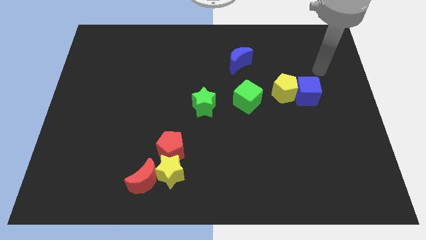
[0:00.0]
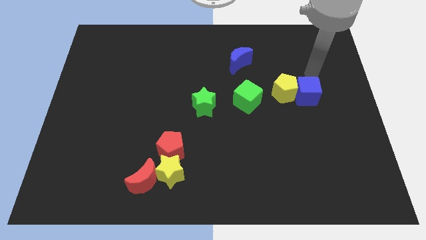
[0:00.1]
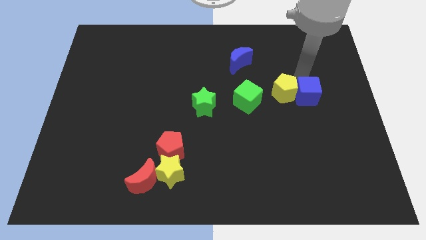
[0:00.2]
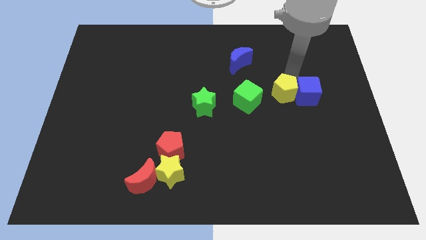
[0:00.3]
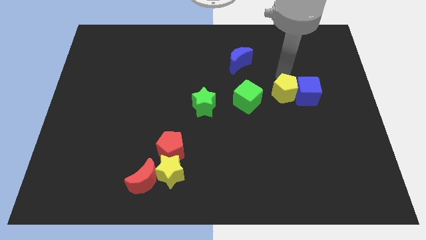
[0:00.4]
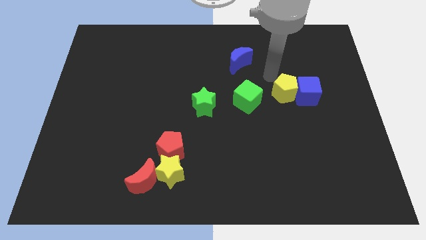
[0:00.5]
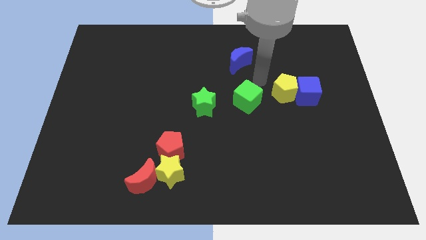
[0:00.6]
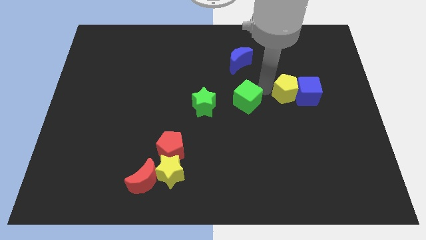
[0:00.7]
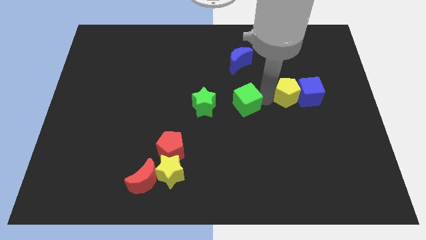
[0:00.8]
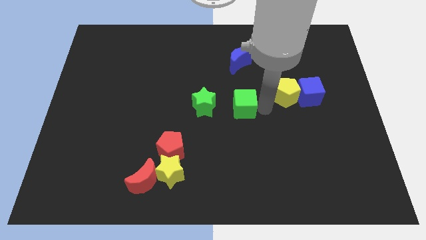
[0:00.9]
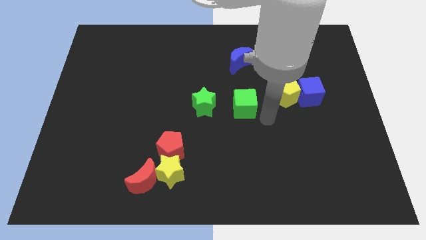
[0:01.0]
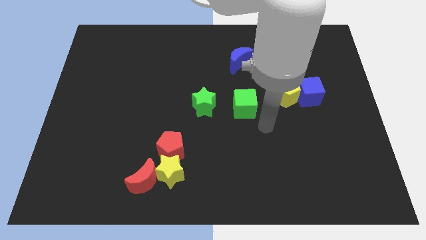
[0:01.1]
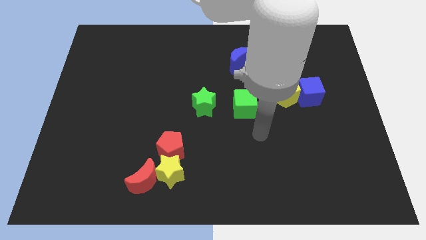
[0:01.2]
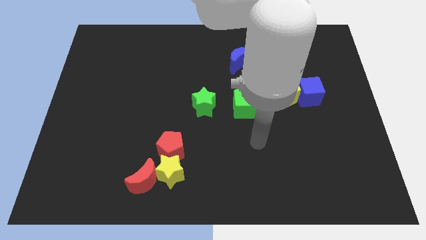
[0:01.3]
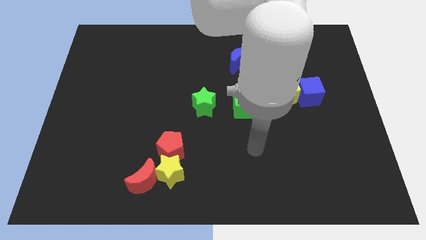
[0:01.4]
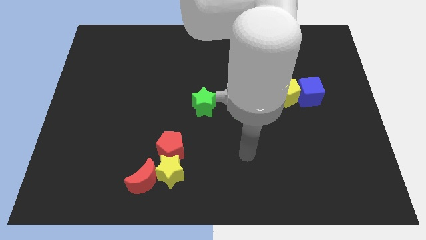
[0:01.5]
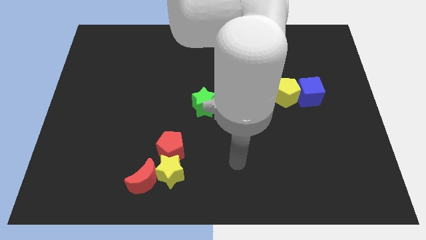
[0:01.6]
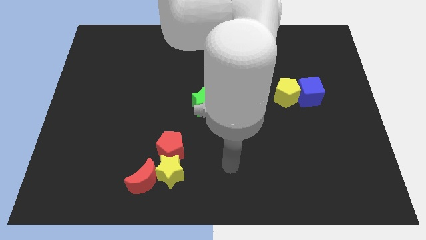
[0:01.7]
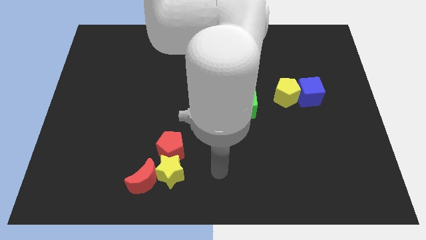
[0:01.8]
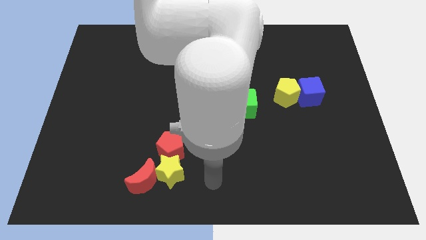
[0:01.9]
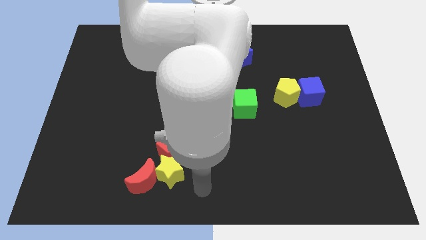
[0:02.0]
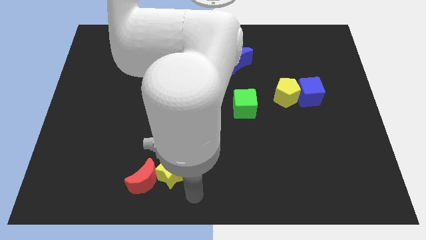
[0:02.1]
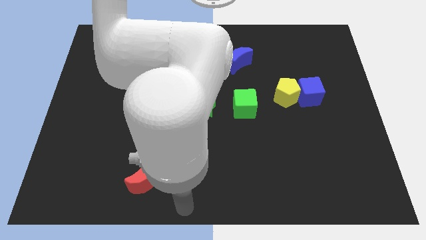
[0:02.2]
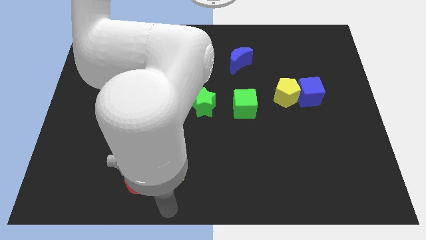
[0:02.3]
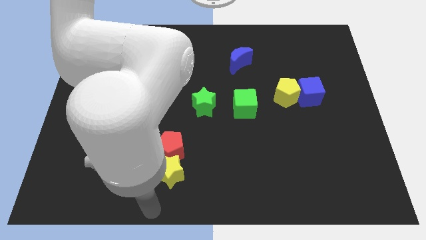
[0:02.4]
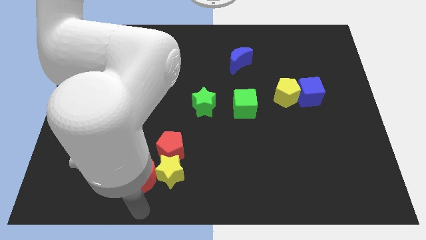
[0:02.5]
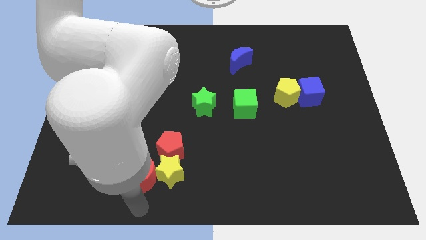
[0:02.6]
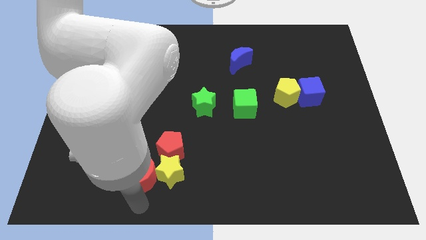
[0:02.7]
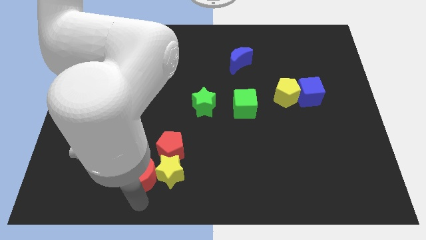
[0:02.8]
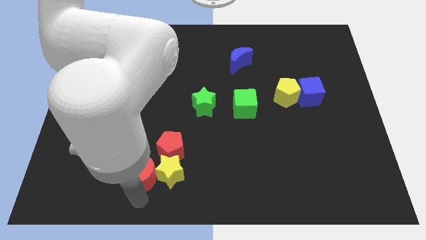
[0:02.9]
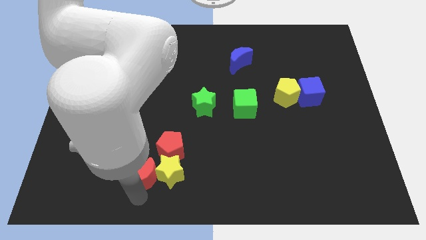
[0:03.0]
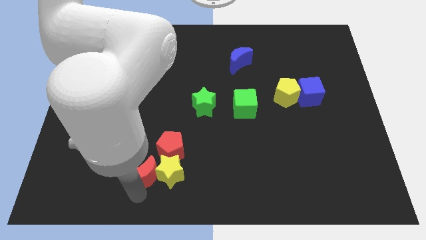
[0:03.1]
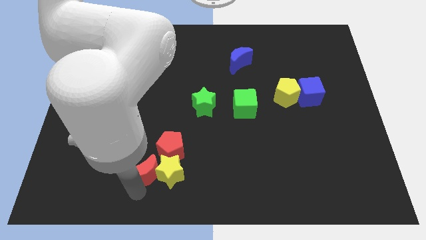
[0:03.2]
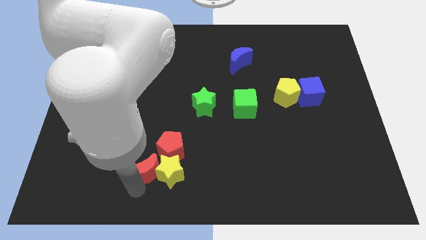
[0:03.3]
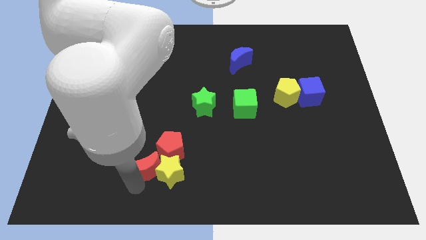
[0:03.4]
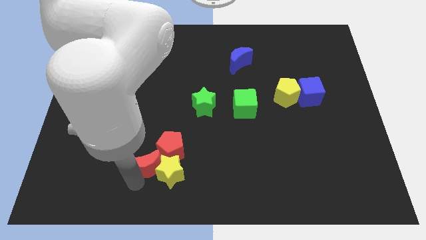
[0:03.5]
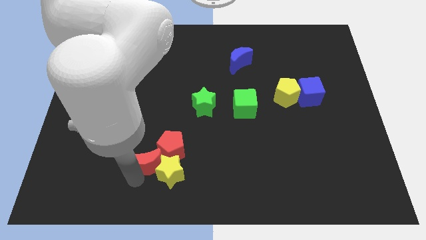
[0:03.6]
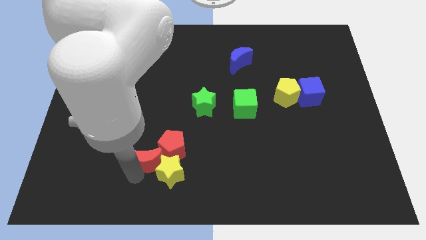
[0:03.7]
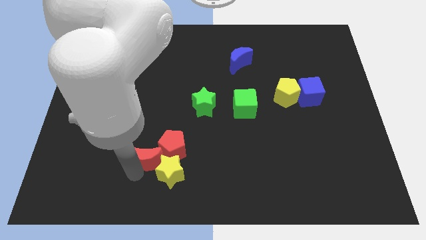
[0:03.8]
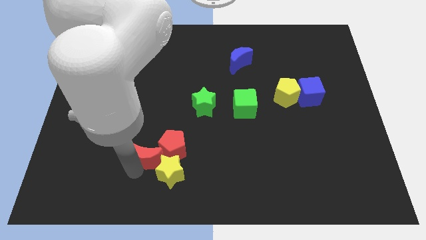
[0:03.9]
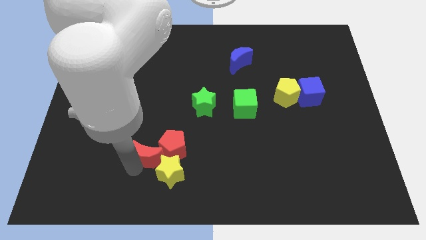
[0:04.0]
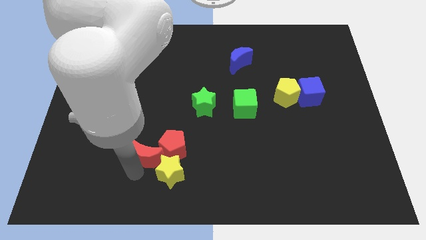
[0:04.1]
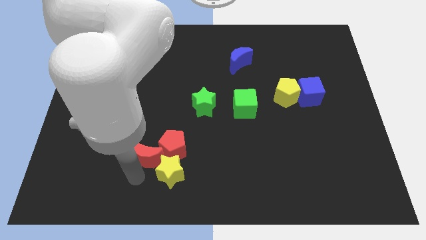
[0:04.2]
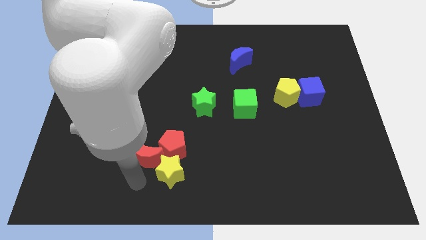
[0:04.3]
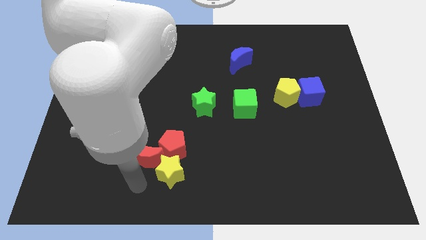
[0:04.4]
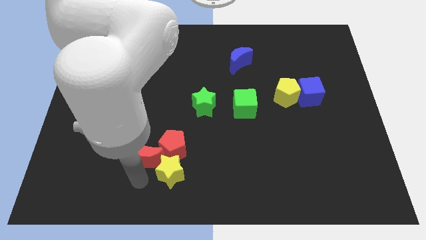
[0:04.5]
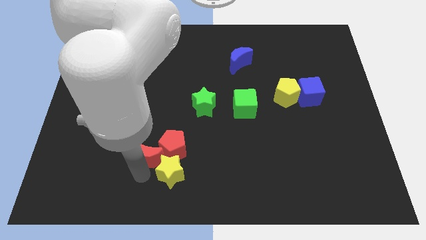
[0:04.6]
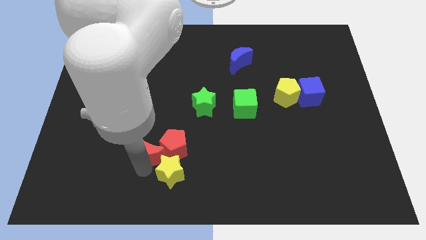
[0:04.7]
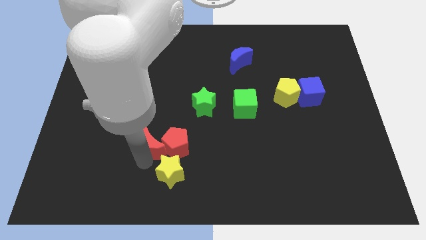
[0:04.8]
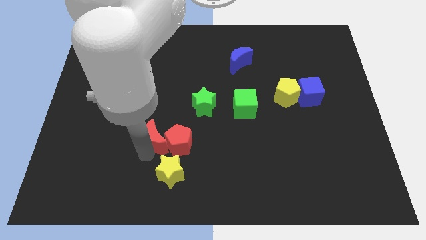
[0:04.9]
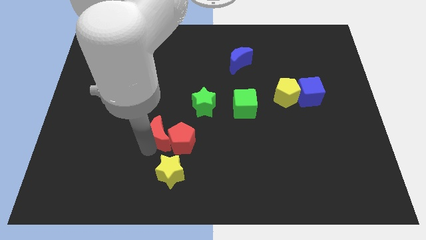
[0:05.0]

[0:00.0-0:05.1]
slide the red moon up and right a little bit

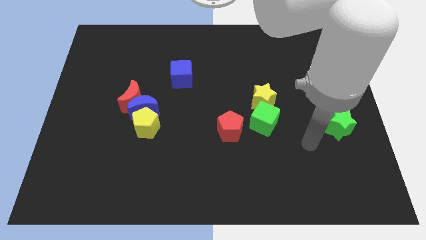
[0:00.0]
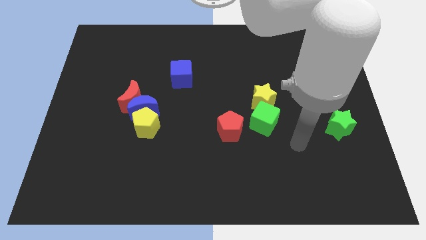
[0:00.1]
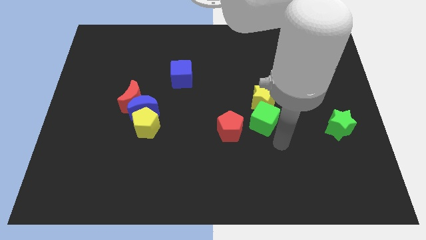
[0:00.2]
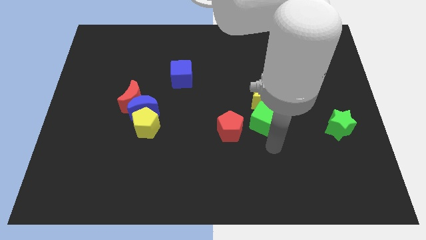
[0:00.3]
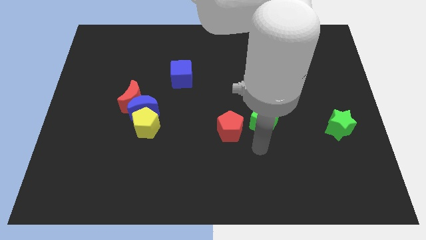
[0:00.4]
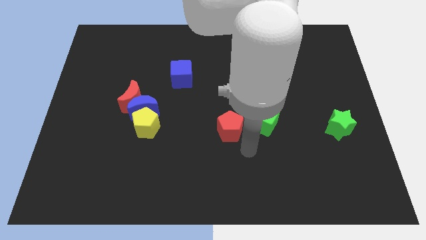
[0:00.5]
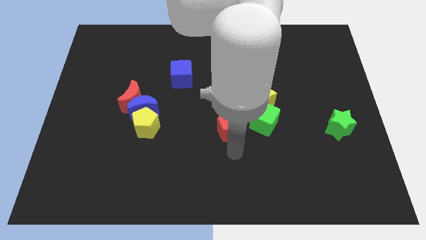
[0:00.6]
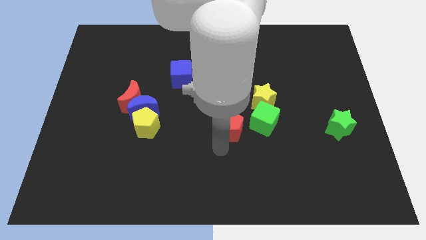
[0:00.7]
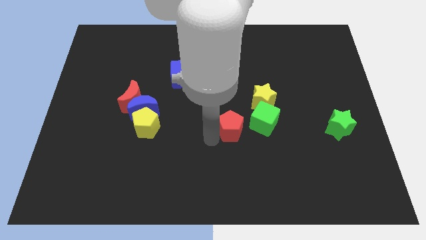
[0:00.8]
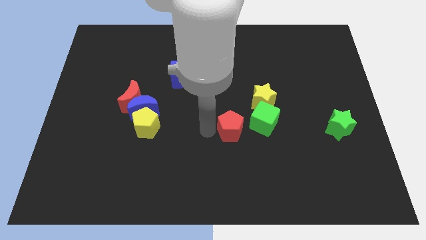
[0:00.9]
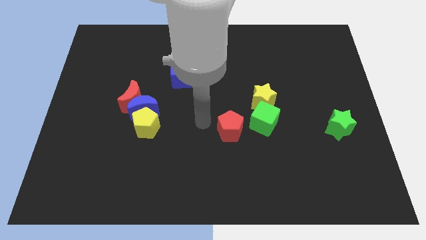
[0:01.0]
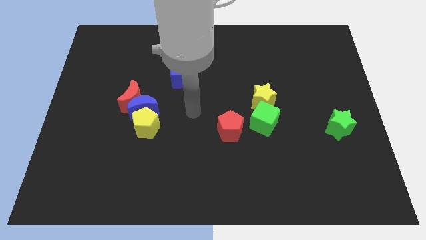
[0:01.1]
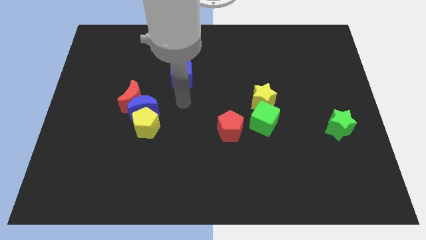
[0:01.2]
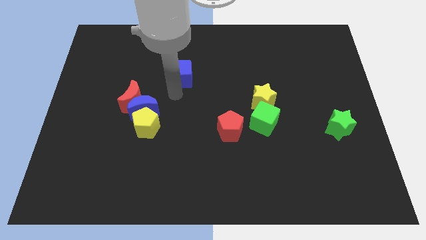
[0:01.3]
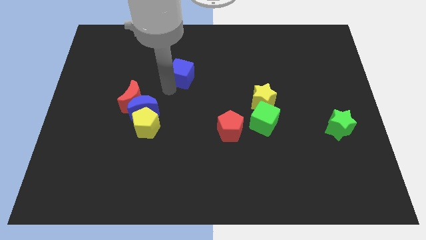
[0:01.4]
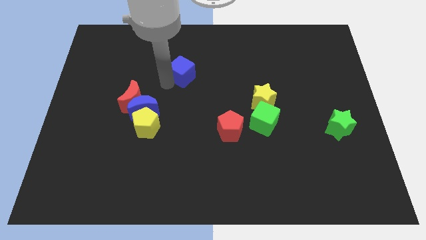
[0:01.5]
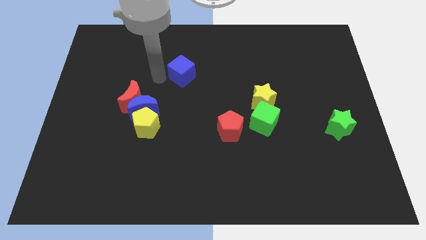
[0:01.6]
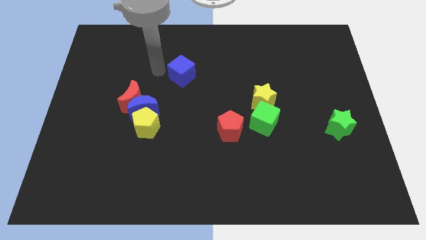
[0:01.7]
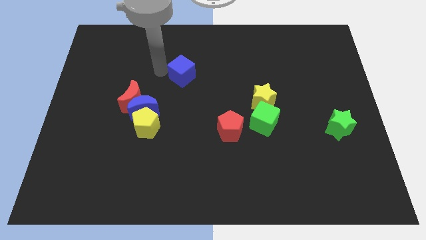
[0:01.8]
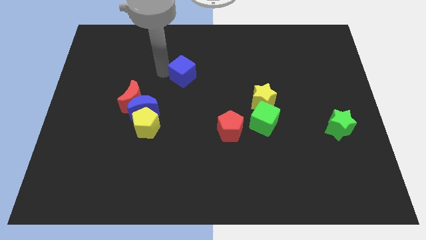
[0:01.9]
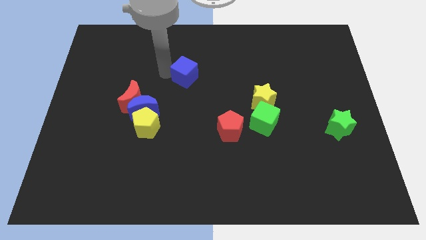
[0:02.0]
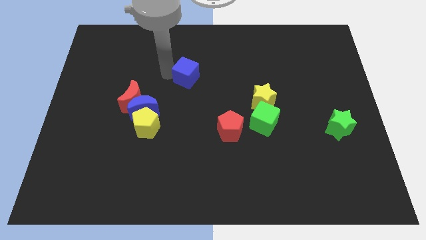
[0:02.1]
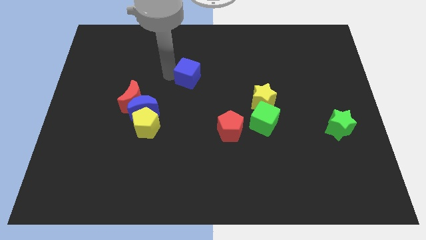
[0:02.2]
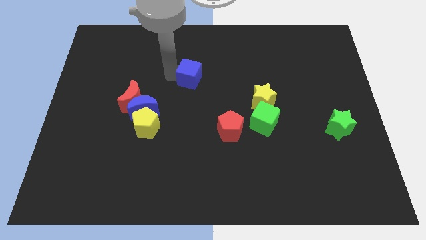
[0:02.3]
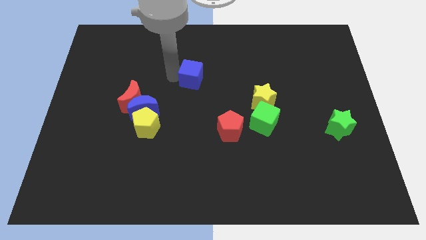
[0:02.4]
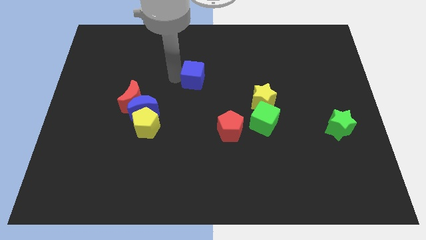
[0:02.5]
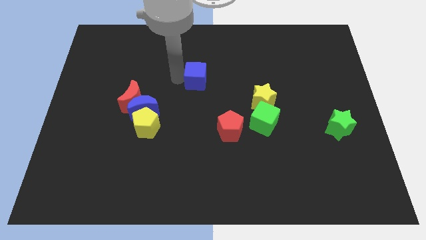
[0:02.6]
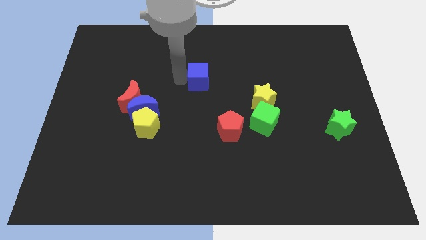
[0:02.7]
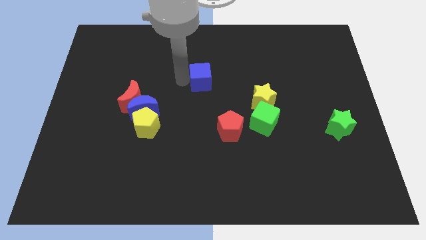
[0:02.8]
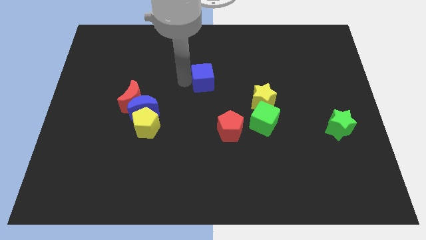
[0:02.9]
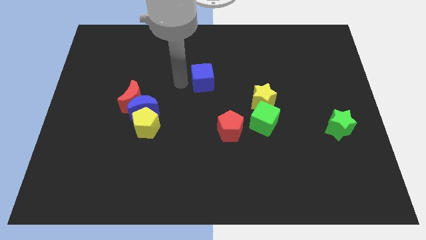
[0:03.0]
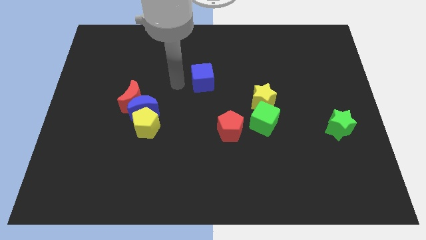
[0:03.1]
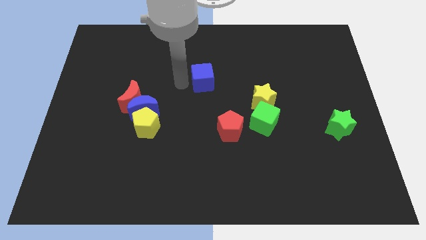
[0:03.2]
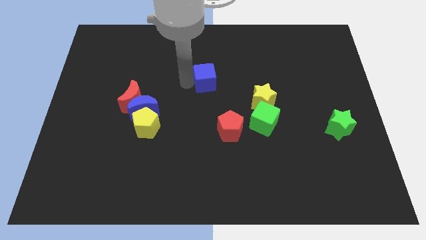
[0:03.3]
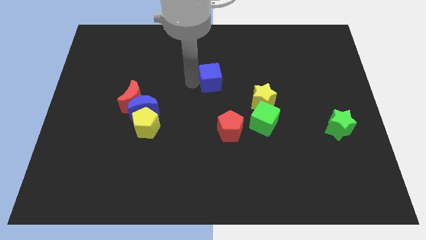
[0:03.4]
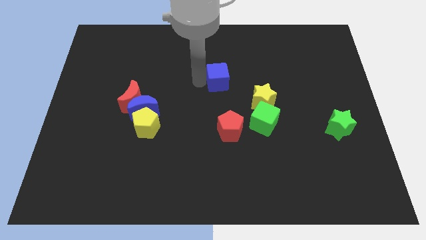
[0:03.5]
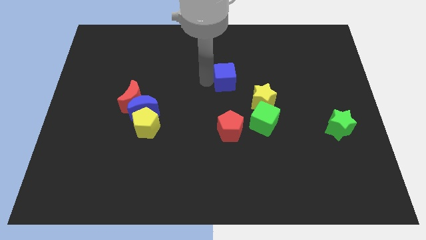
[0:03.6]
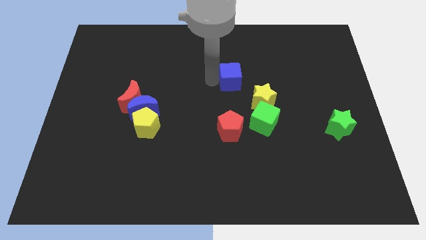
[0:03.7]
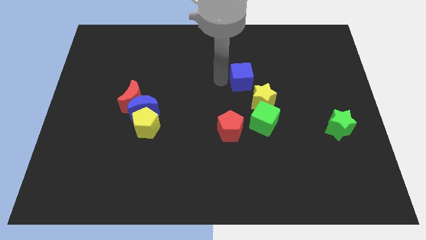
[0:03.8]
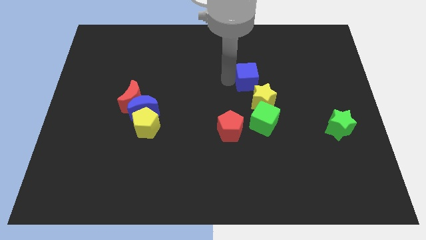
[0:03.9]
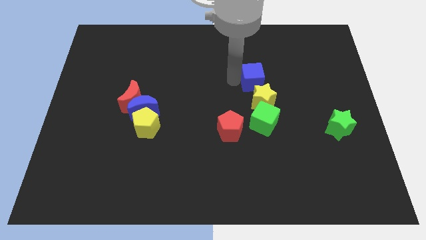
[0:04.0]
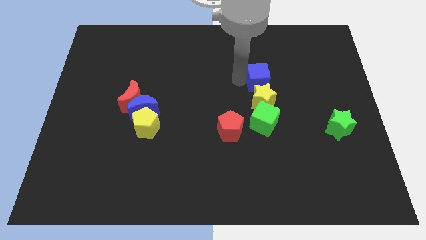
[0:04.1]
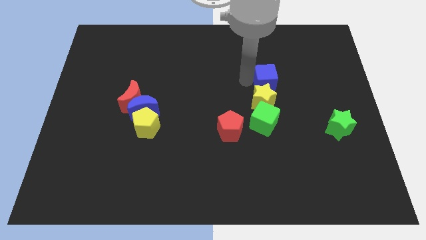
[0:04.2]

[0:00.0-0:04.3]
slide the blue cube right
